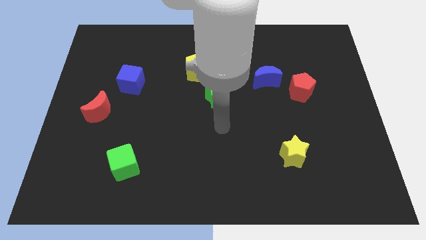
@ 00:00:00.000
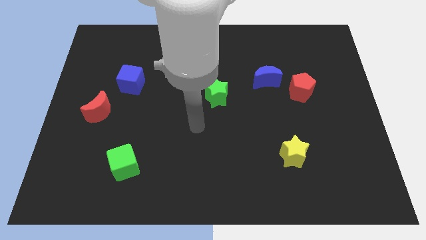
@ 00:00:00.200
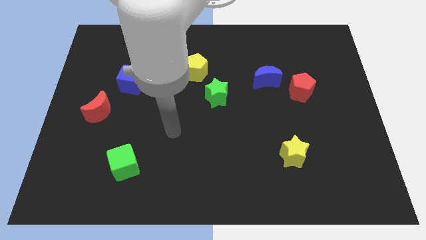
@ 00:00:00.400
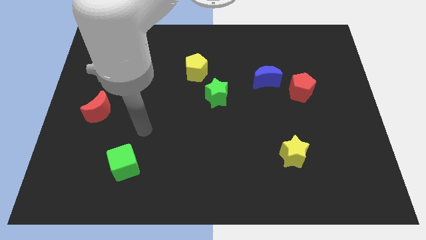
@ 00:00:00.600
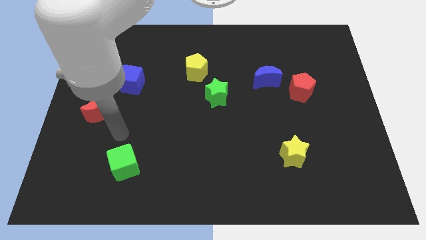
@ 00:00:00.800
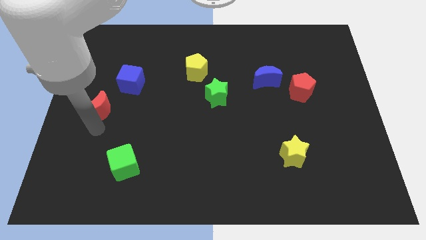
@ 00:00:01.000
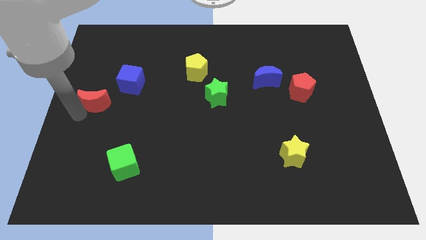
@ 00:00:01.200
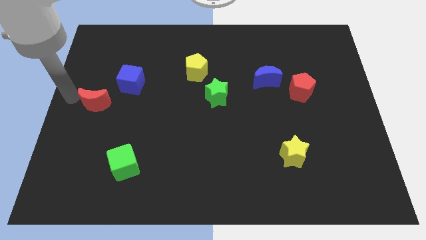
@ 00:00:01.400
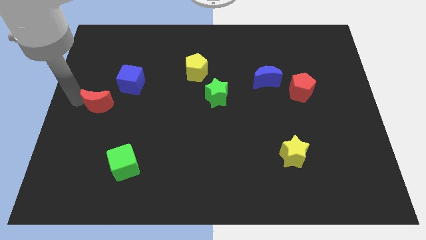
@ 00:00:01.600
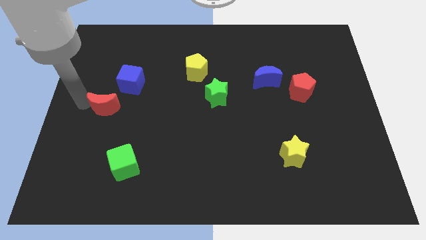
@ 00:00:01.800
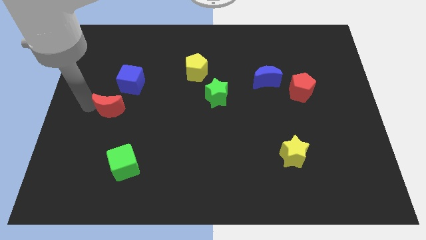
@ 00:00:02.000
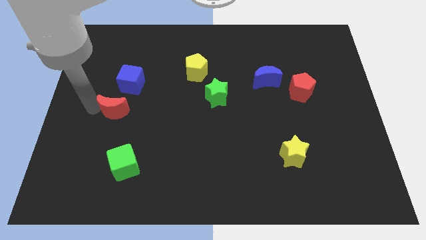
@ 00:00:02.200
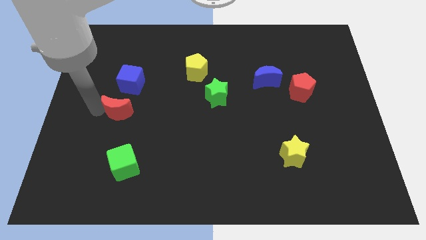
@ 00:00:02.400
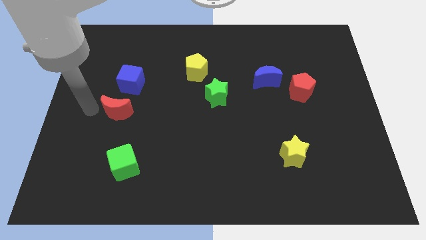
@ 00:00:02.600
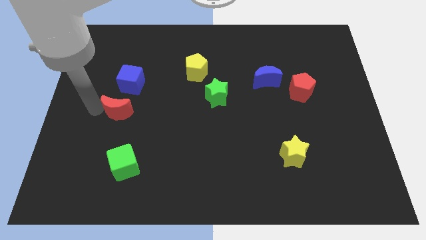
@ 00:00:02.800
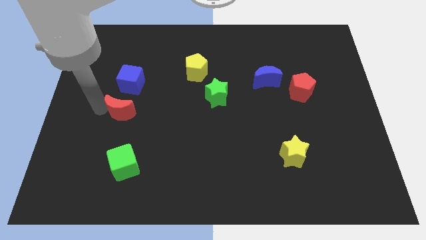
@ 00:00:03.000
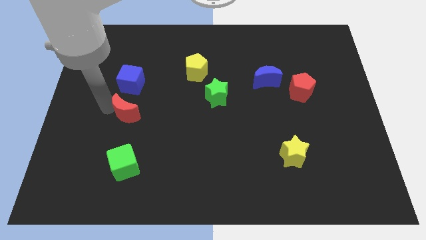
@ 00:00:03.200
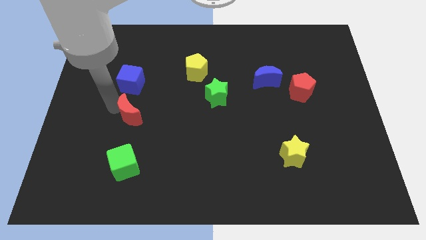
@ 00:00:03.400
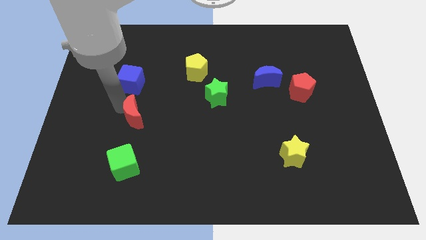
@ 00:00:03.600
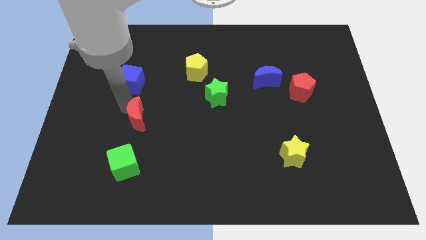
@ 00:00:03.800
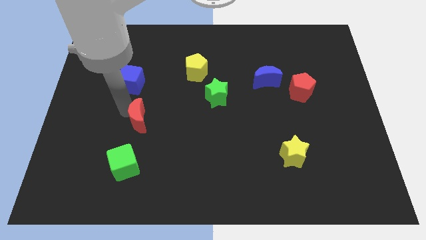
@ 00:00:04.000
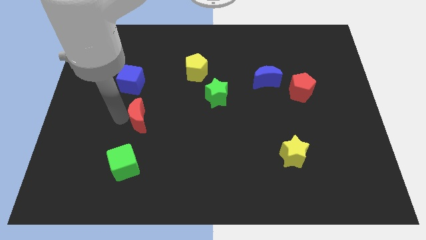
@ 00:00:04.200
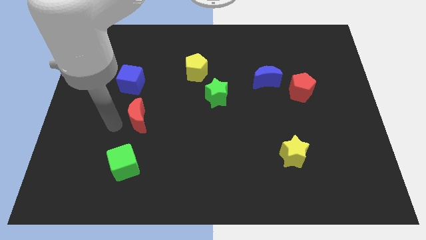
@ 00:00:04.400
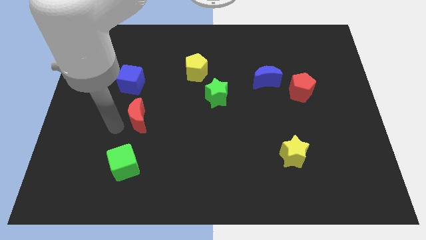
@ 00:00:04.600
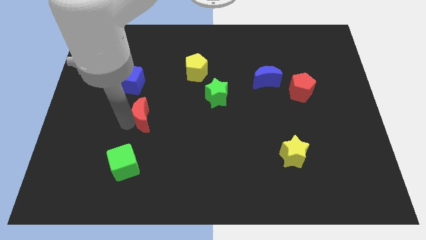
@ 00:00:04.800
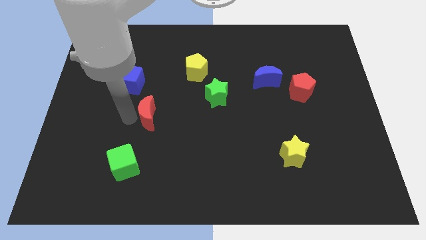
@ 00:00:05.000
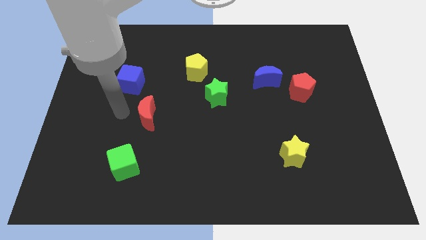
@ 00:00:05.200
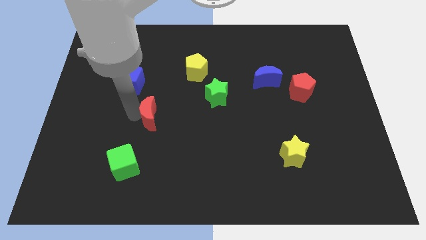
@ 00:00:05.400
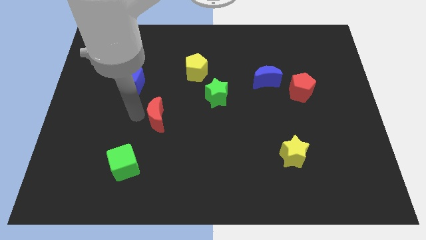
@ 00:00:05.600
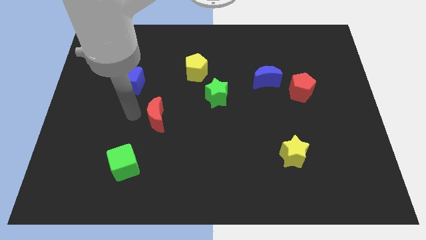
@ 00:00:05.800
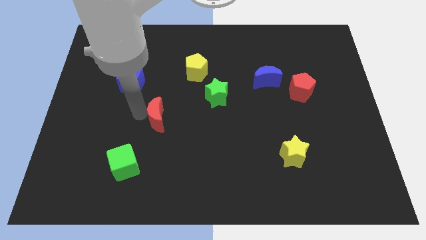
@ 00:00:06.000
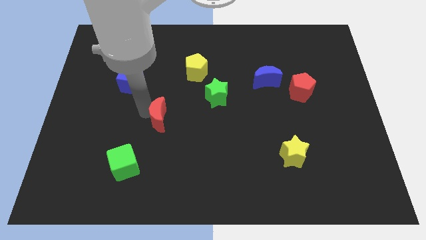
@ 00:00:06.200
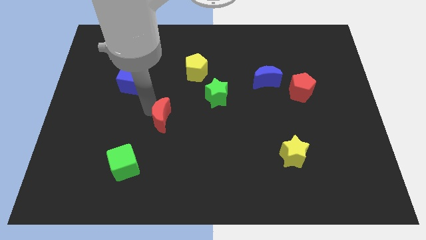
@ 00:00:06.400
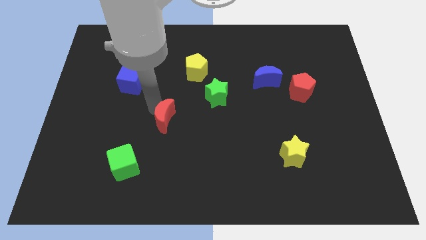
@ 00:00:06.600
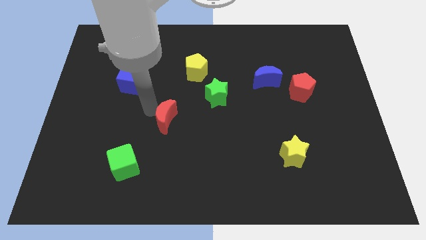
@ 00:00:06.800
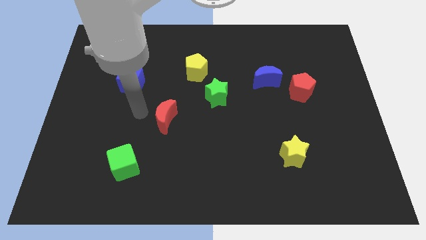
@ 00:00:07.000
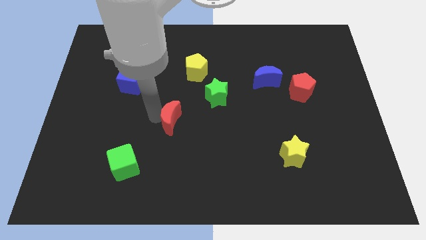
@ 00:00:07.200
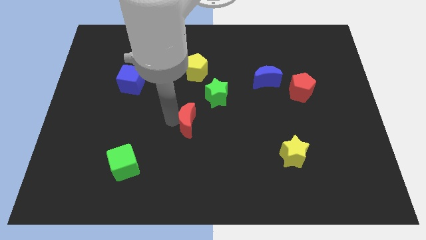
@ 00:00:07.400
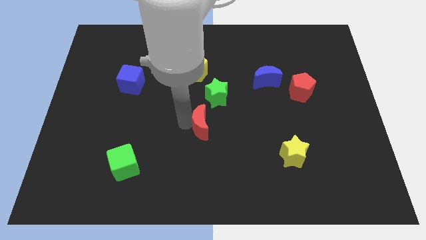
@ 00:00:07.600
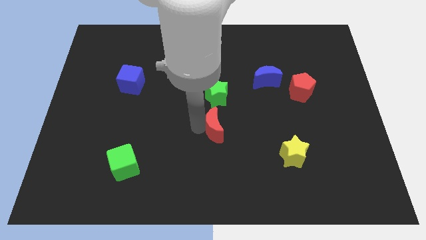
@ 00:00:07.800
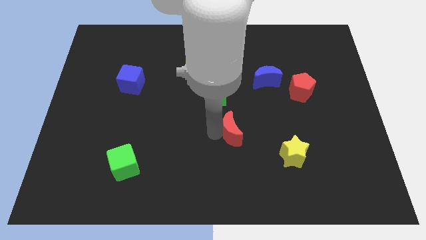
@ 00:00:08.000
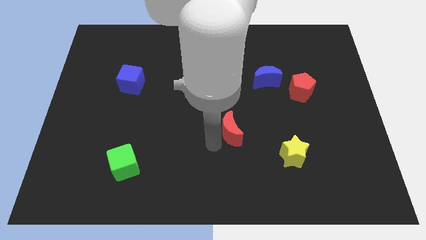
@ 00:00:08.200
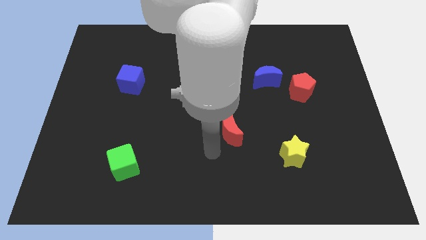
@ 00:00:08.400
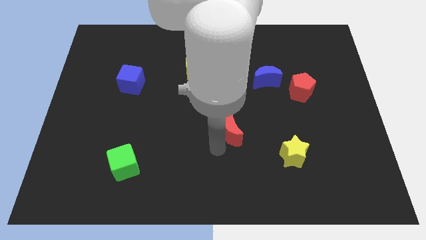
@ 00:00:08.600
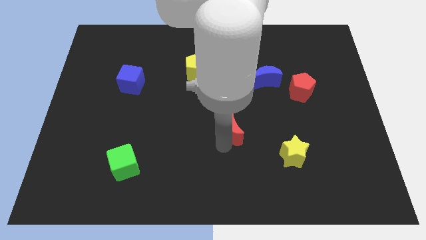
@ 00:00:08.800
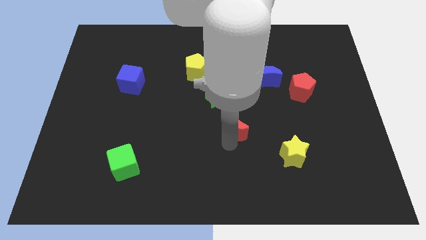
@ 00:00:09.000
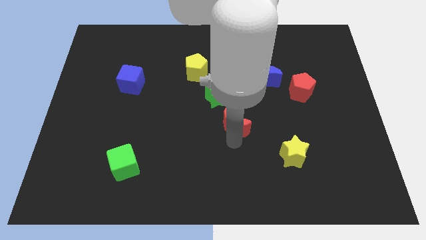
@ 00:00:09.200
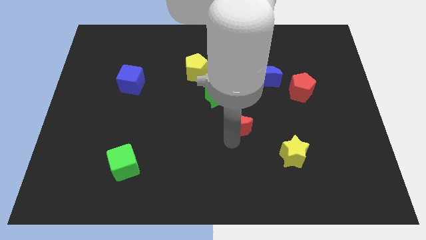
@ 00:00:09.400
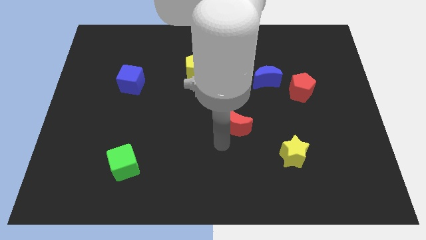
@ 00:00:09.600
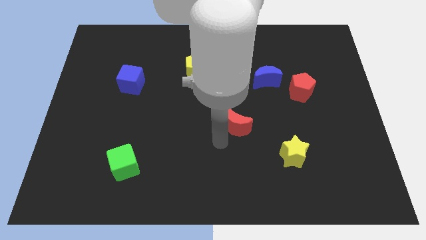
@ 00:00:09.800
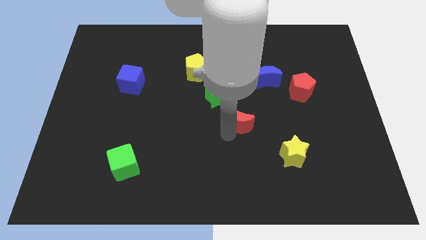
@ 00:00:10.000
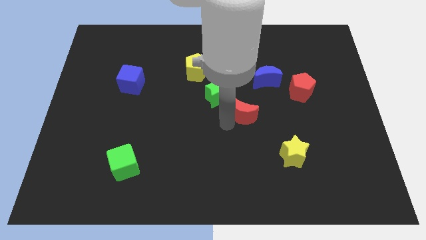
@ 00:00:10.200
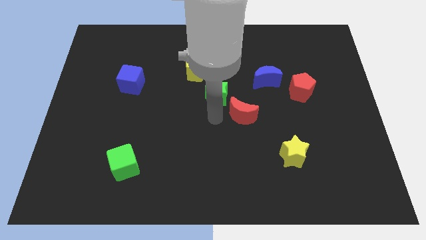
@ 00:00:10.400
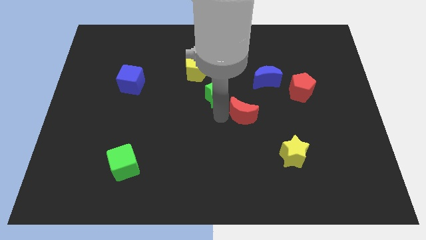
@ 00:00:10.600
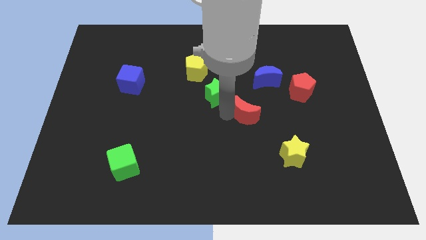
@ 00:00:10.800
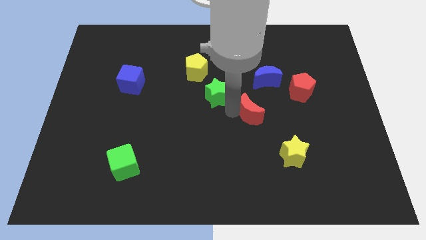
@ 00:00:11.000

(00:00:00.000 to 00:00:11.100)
slide the red moon to the bottom of the blue moon

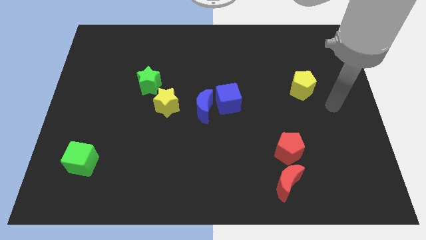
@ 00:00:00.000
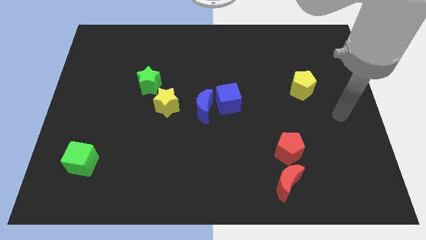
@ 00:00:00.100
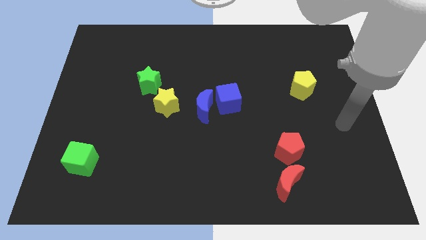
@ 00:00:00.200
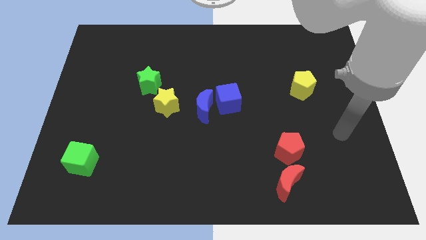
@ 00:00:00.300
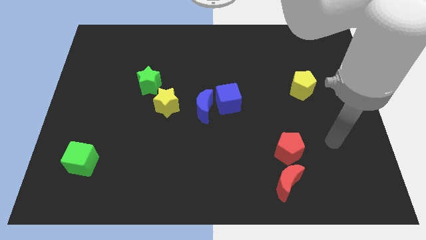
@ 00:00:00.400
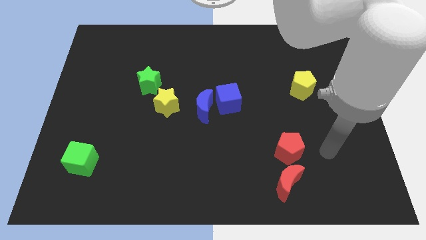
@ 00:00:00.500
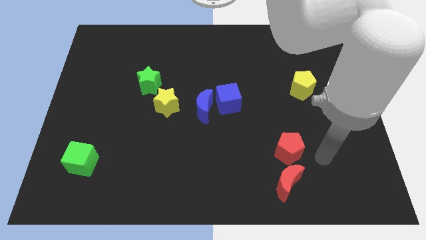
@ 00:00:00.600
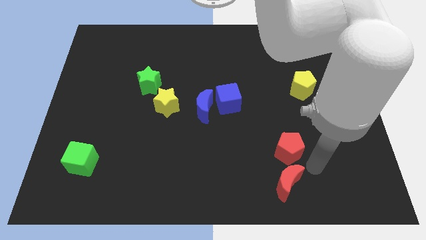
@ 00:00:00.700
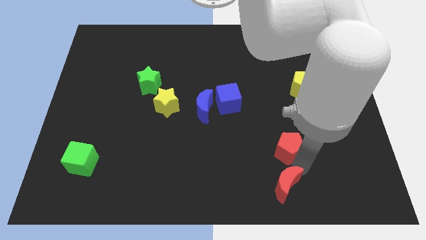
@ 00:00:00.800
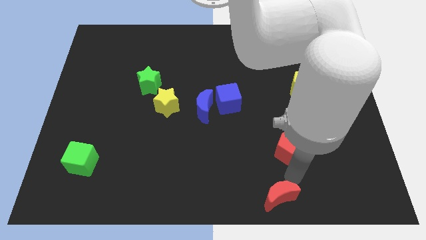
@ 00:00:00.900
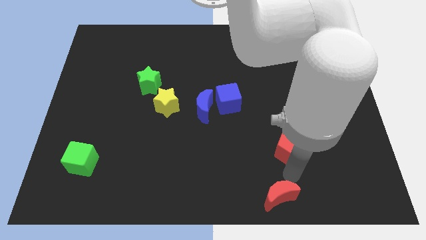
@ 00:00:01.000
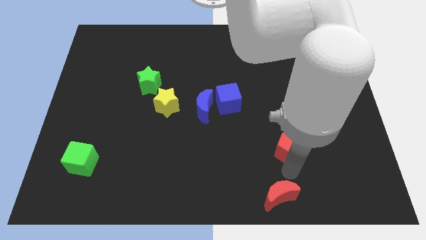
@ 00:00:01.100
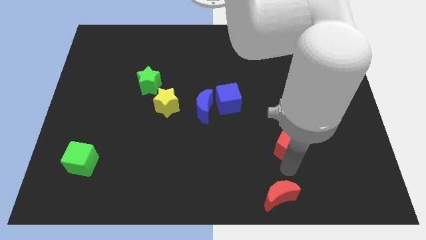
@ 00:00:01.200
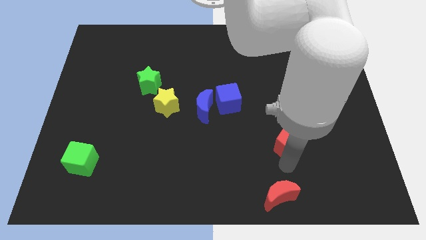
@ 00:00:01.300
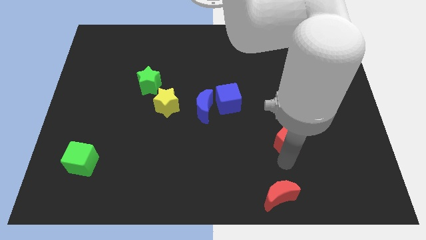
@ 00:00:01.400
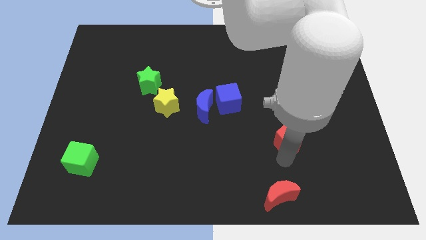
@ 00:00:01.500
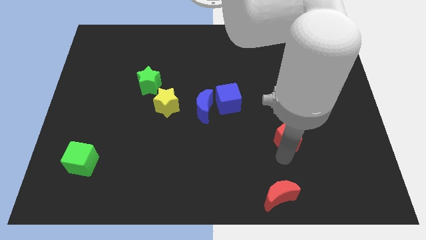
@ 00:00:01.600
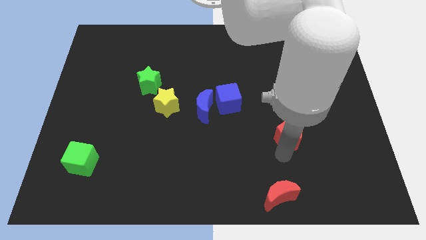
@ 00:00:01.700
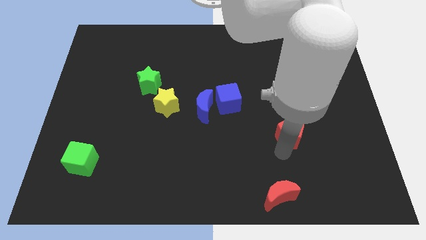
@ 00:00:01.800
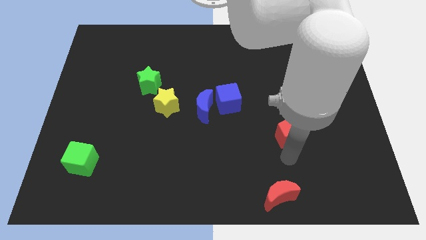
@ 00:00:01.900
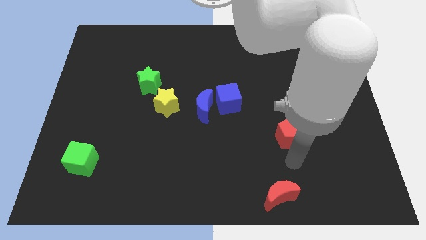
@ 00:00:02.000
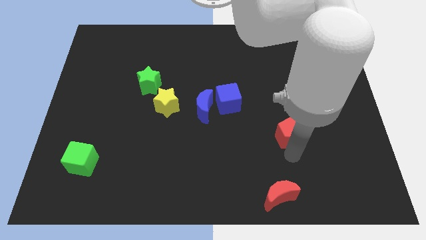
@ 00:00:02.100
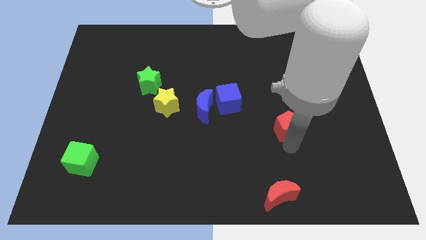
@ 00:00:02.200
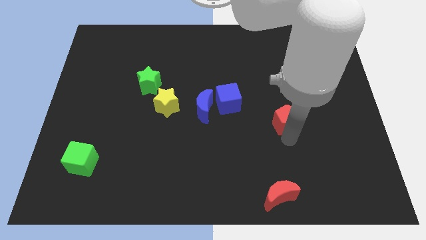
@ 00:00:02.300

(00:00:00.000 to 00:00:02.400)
slide the red pentagon to the bottom left side of the yellow pentagon
